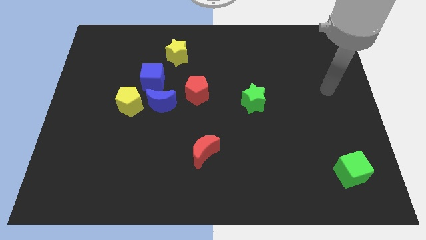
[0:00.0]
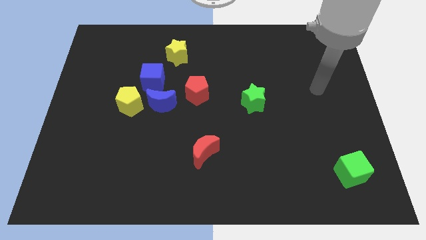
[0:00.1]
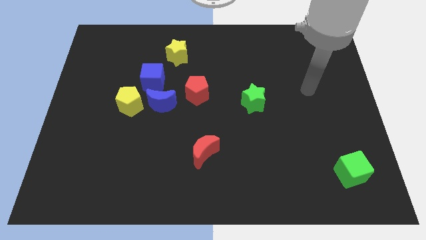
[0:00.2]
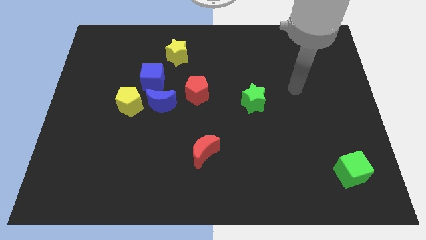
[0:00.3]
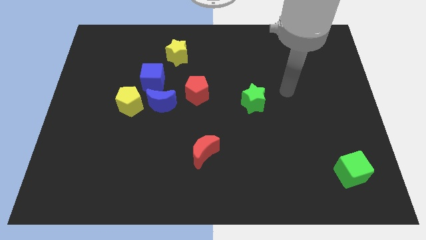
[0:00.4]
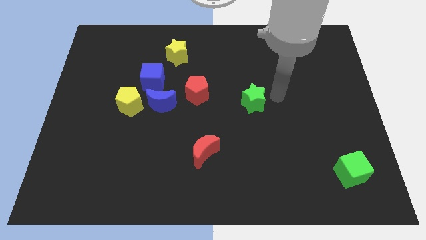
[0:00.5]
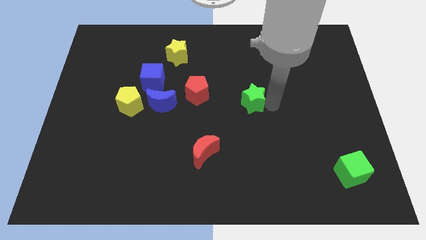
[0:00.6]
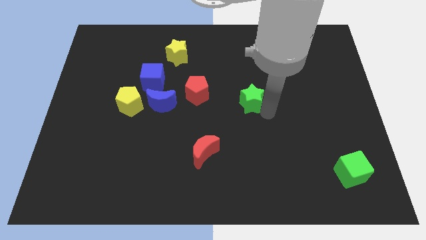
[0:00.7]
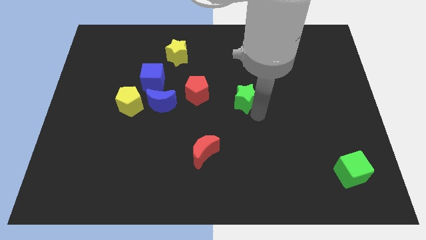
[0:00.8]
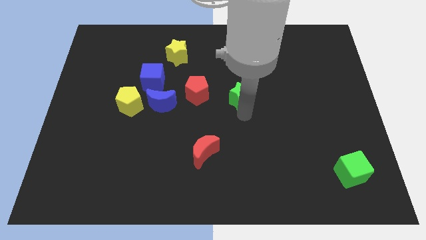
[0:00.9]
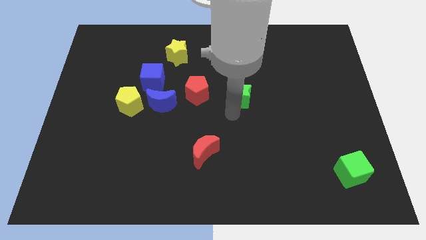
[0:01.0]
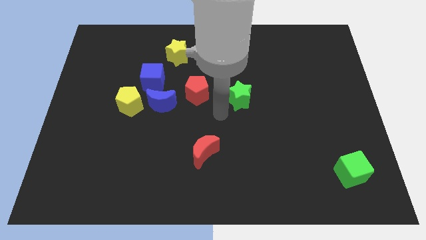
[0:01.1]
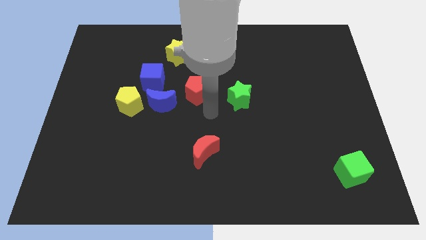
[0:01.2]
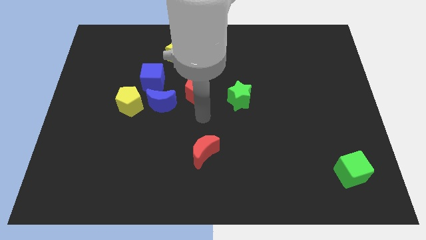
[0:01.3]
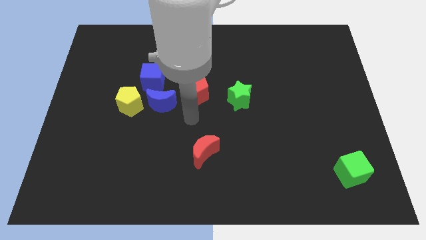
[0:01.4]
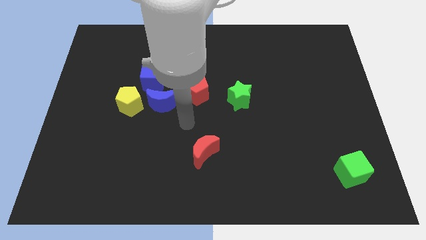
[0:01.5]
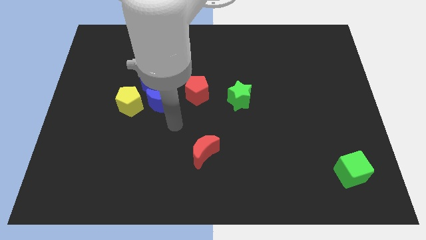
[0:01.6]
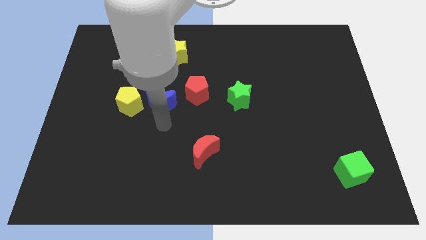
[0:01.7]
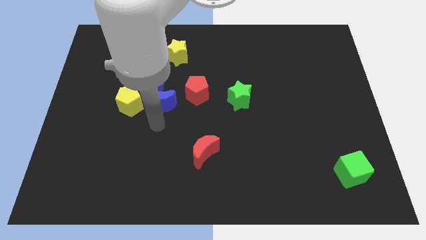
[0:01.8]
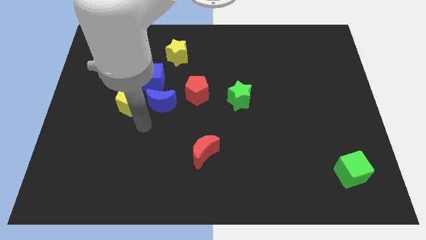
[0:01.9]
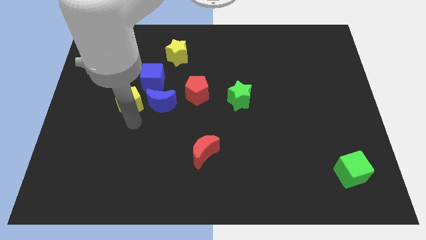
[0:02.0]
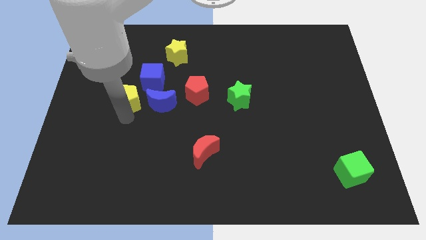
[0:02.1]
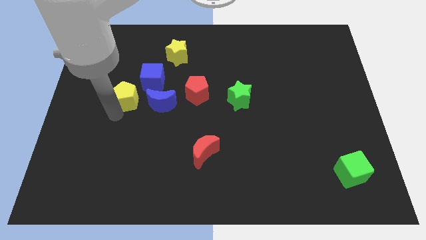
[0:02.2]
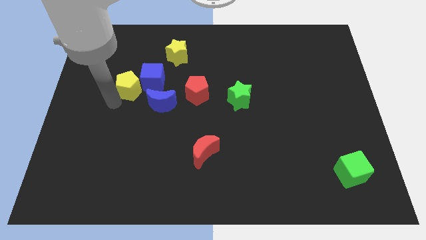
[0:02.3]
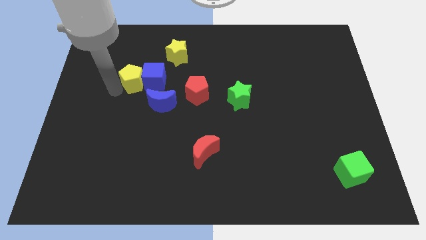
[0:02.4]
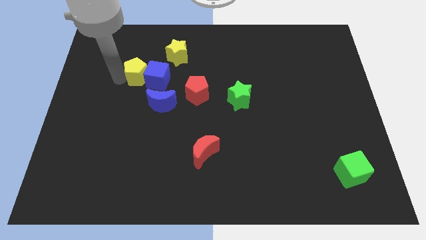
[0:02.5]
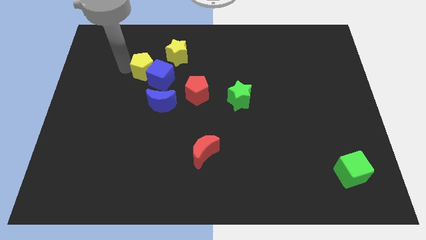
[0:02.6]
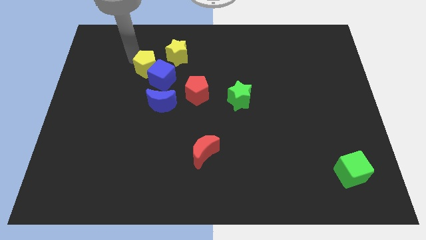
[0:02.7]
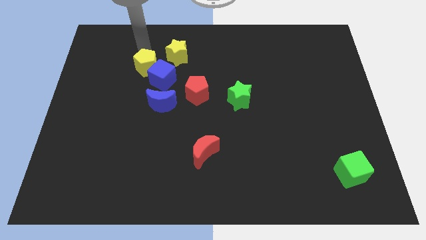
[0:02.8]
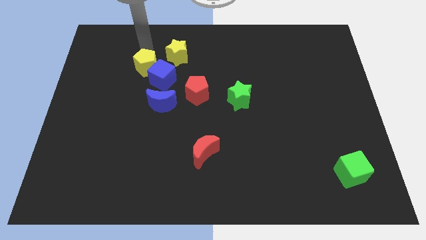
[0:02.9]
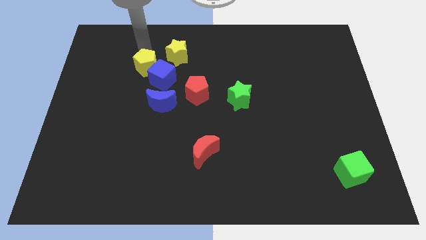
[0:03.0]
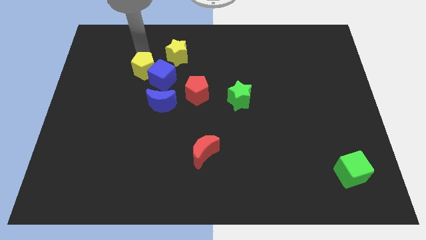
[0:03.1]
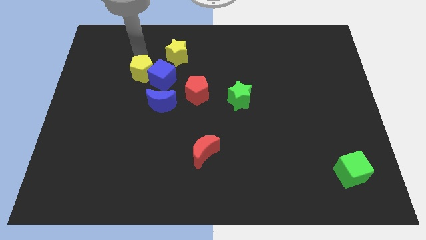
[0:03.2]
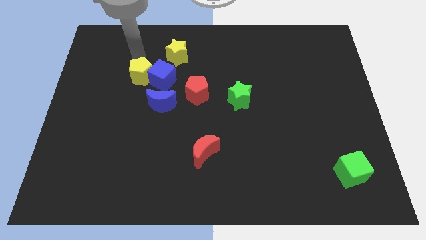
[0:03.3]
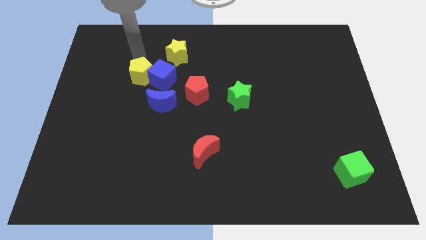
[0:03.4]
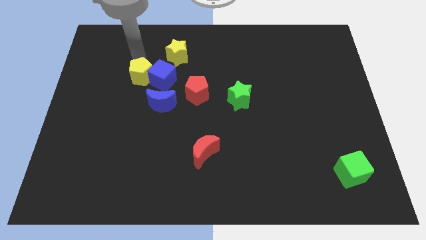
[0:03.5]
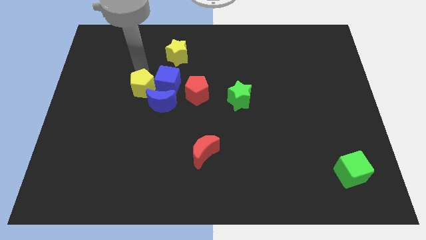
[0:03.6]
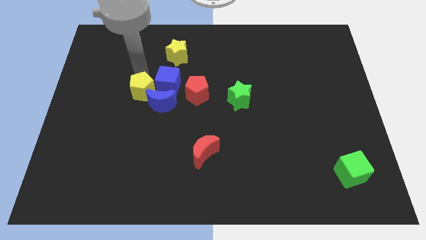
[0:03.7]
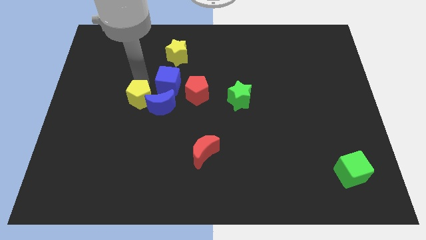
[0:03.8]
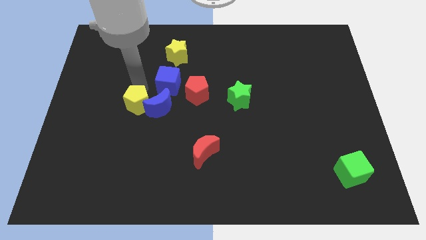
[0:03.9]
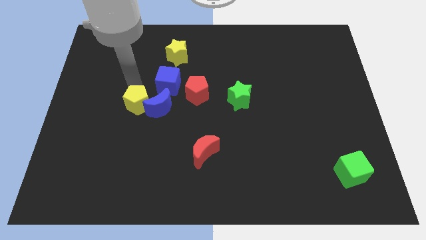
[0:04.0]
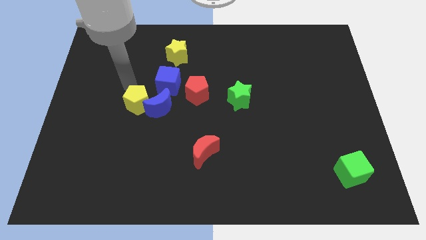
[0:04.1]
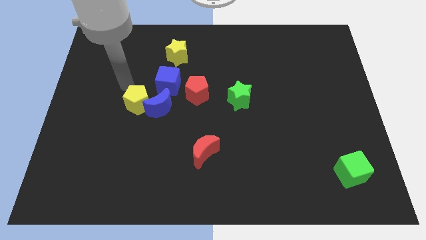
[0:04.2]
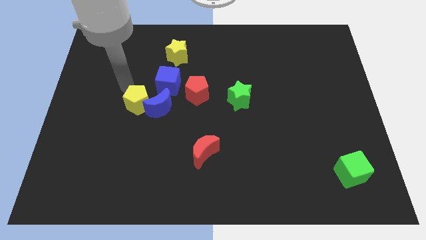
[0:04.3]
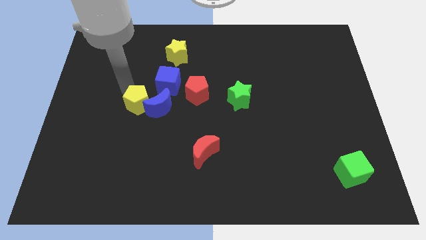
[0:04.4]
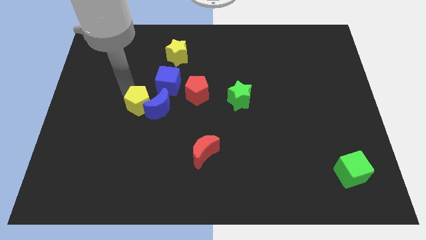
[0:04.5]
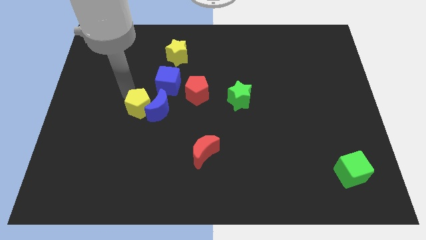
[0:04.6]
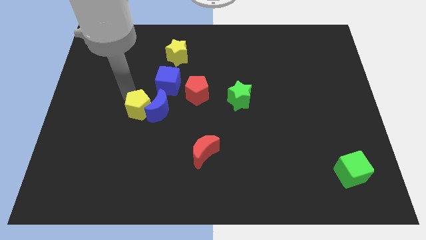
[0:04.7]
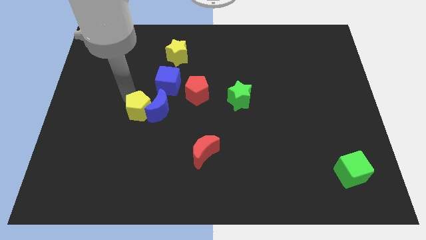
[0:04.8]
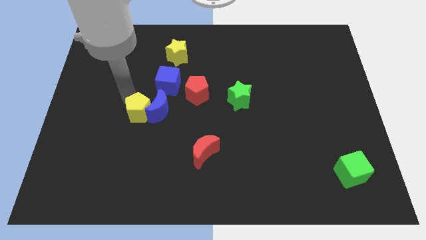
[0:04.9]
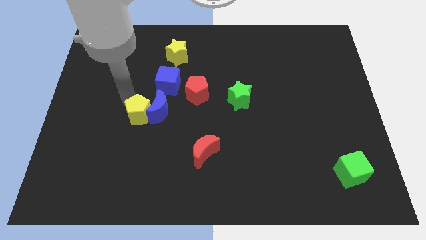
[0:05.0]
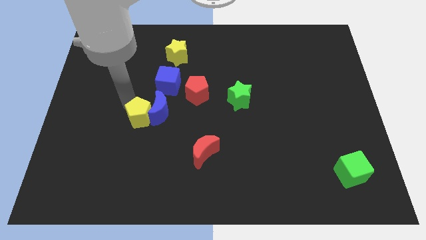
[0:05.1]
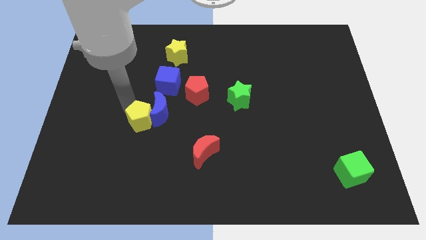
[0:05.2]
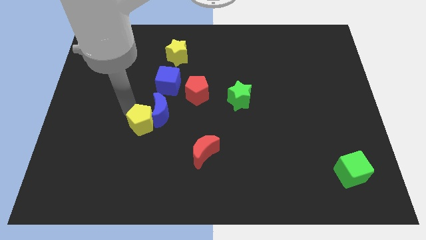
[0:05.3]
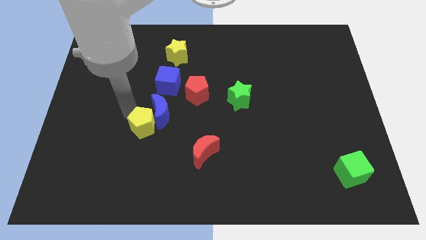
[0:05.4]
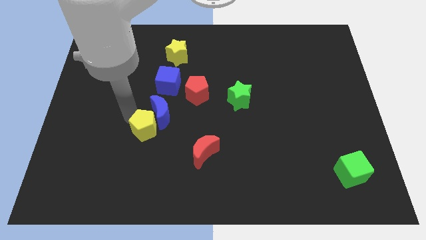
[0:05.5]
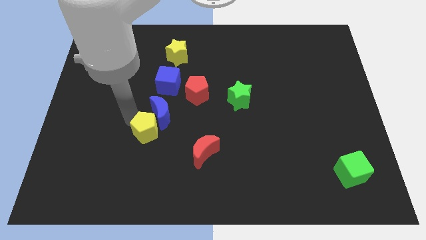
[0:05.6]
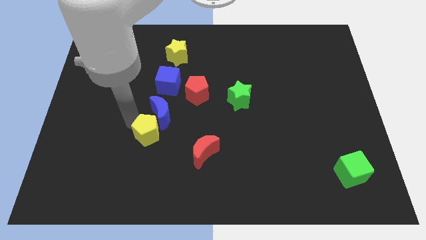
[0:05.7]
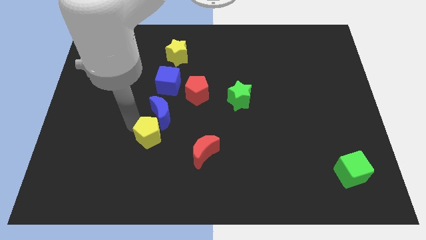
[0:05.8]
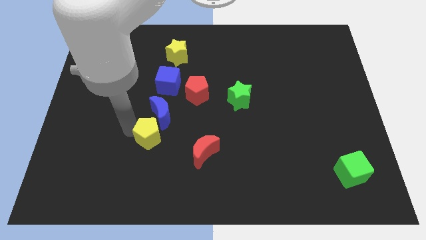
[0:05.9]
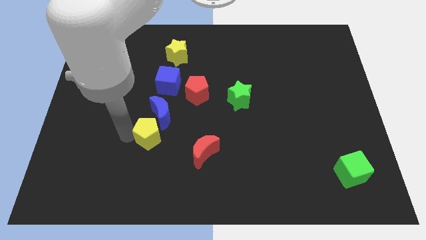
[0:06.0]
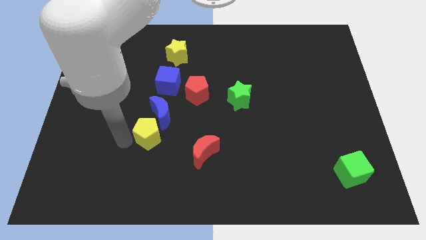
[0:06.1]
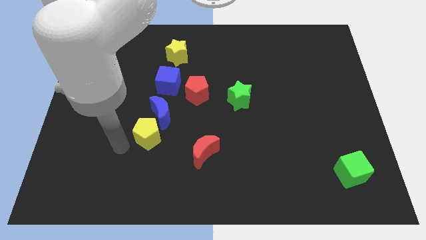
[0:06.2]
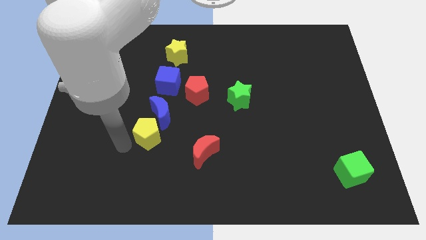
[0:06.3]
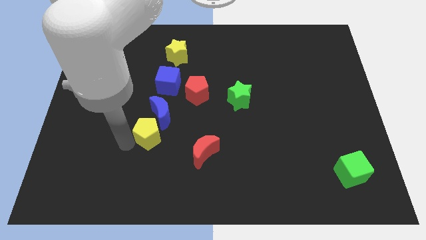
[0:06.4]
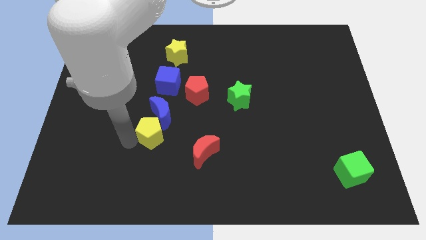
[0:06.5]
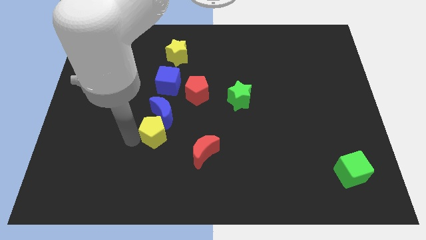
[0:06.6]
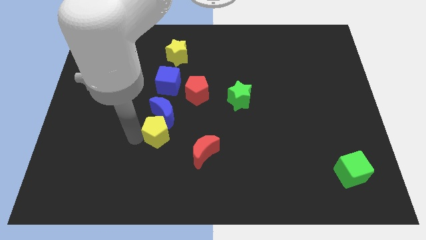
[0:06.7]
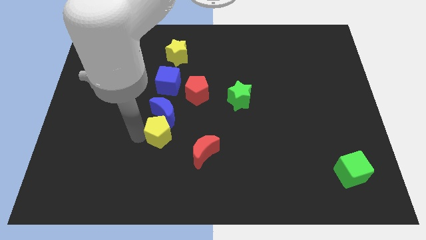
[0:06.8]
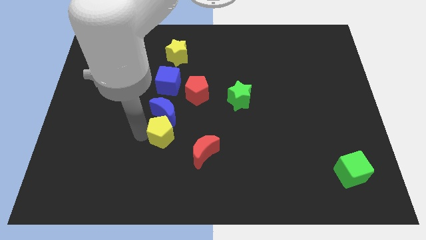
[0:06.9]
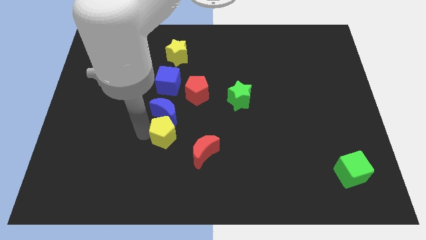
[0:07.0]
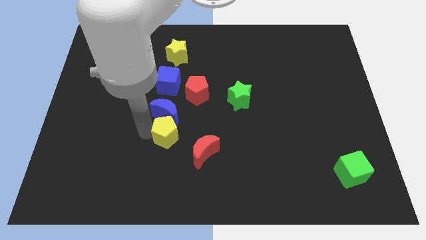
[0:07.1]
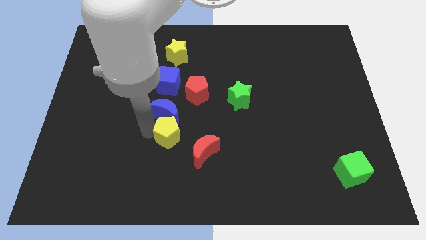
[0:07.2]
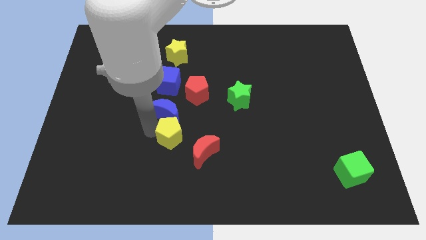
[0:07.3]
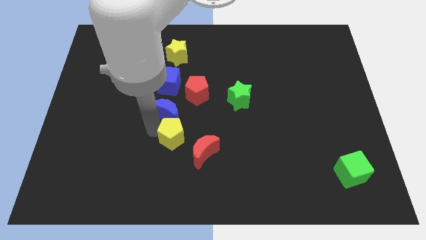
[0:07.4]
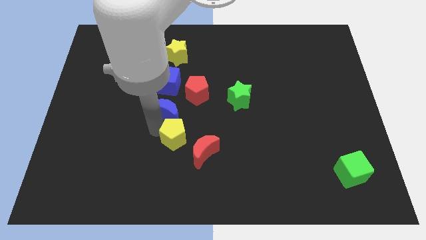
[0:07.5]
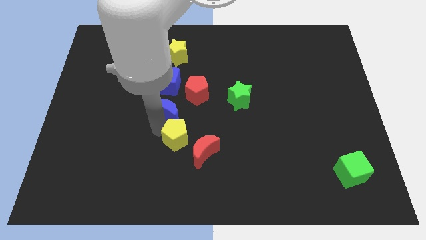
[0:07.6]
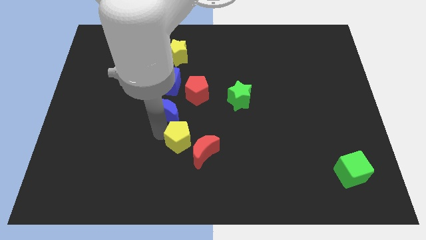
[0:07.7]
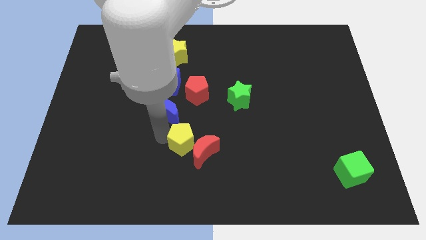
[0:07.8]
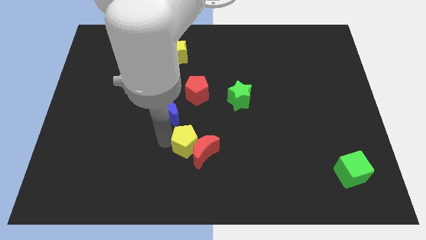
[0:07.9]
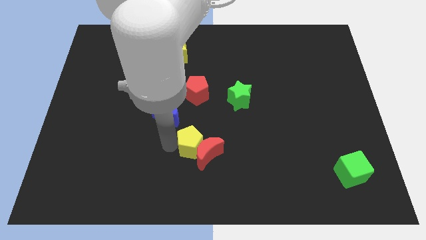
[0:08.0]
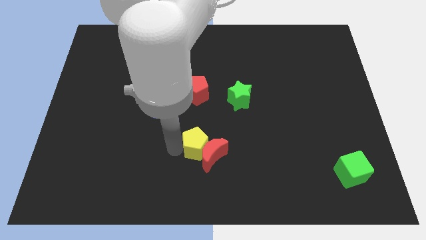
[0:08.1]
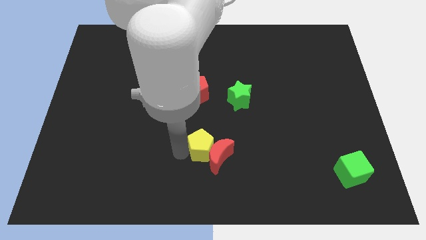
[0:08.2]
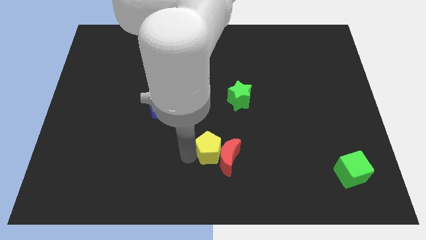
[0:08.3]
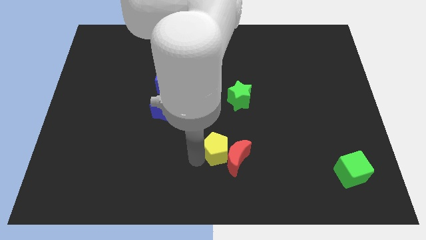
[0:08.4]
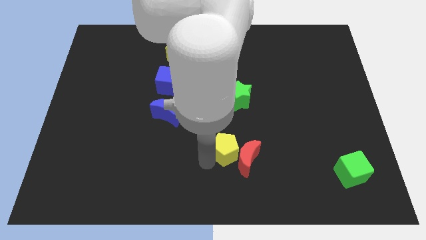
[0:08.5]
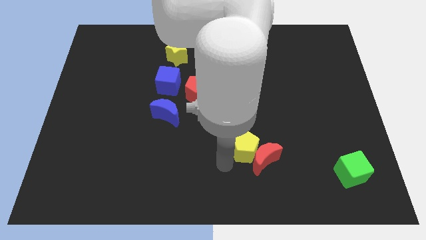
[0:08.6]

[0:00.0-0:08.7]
push the yellow pentagon to the bottom of the green star
